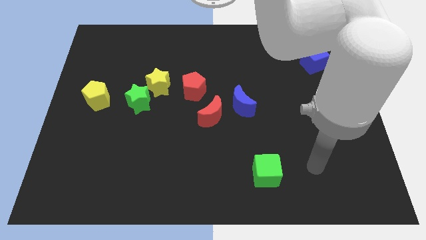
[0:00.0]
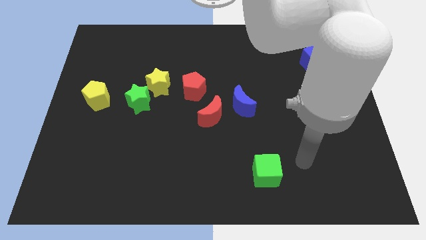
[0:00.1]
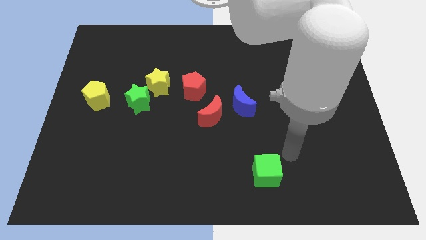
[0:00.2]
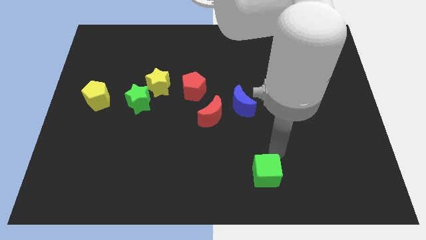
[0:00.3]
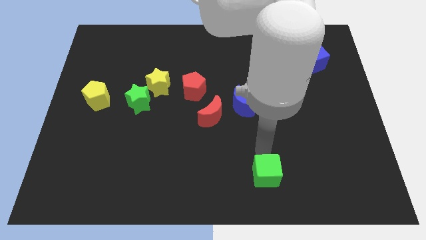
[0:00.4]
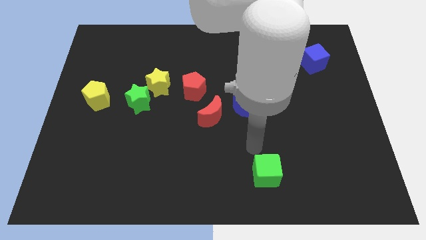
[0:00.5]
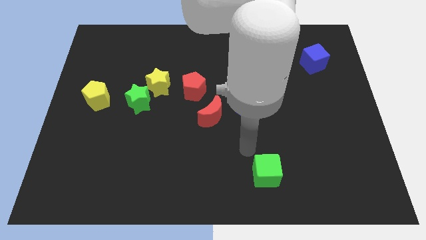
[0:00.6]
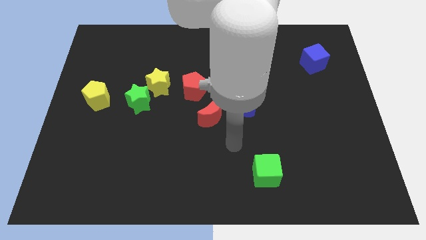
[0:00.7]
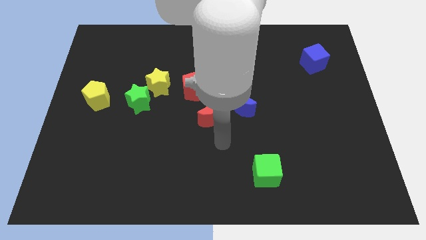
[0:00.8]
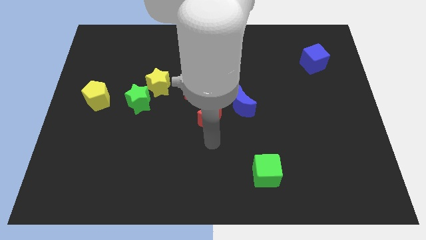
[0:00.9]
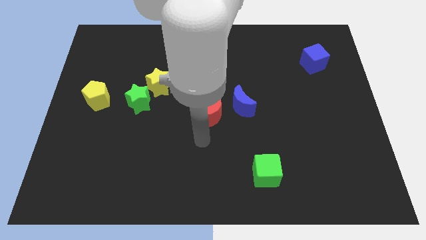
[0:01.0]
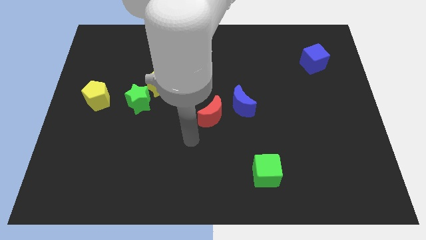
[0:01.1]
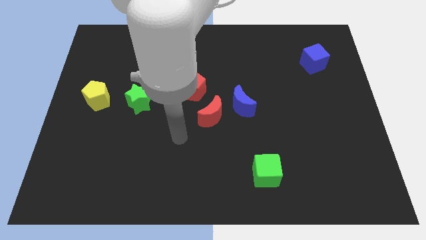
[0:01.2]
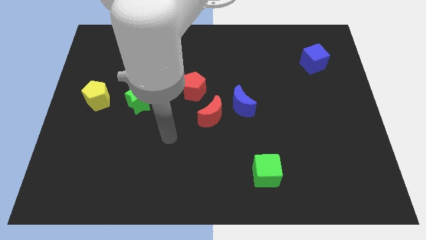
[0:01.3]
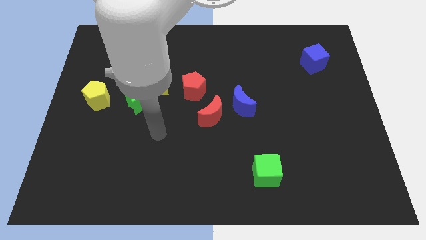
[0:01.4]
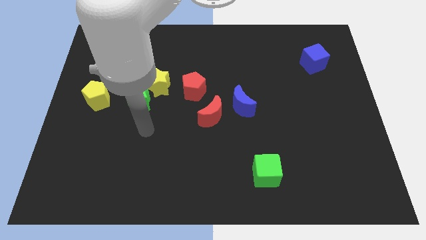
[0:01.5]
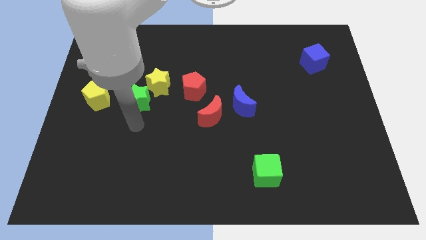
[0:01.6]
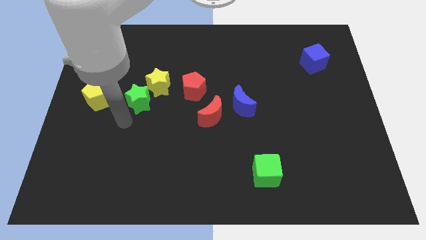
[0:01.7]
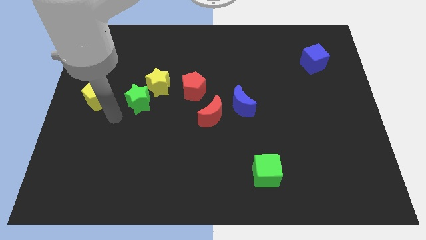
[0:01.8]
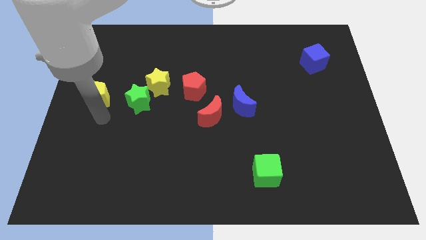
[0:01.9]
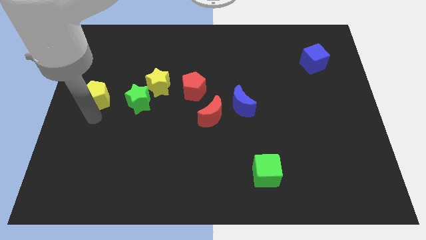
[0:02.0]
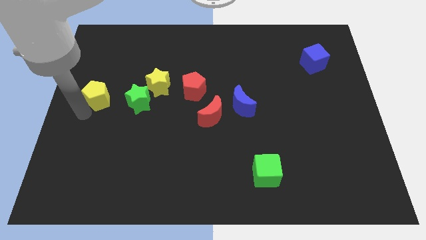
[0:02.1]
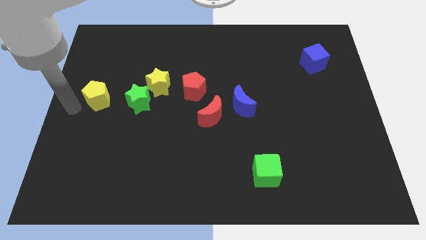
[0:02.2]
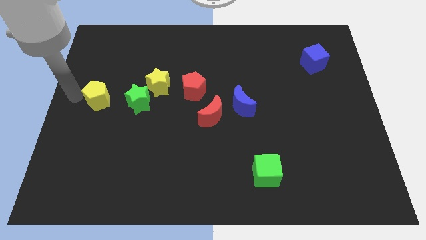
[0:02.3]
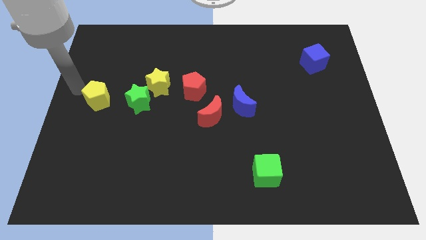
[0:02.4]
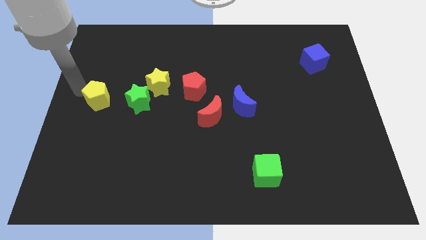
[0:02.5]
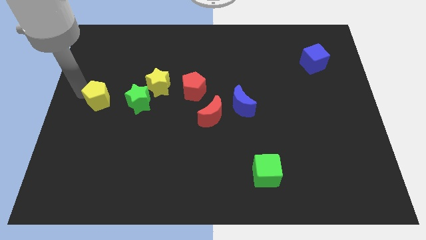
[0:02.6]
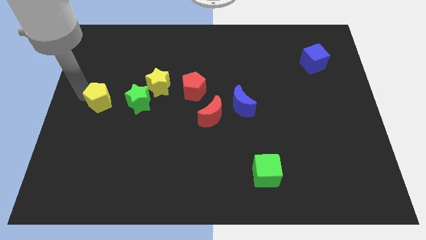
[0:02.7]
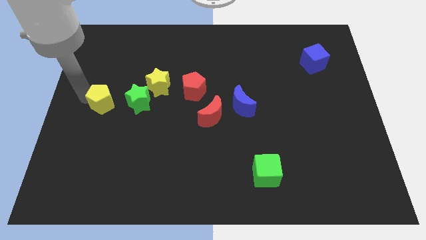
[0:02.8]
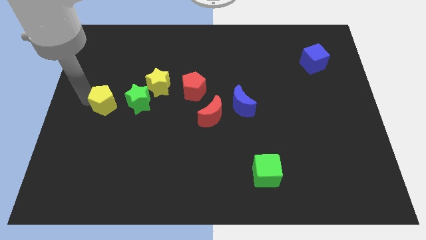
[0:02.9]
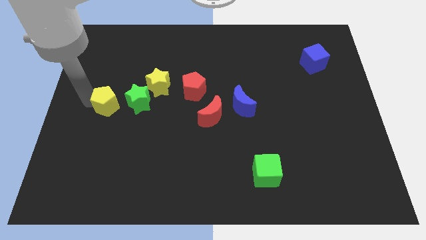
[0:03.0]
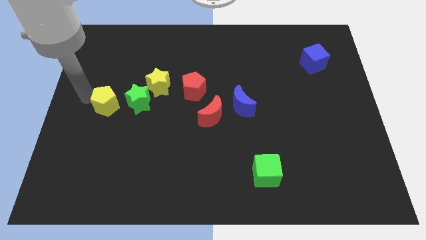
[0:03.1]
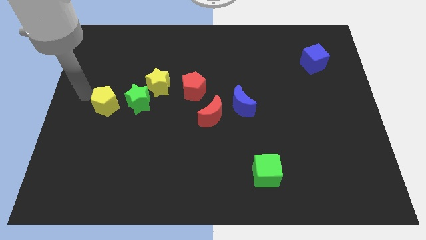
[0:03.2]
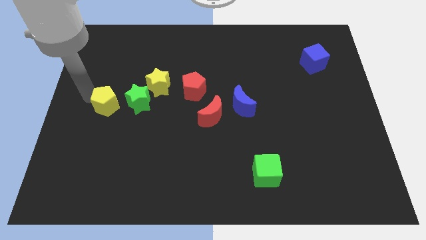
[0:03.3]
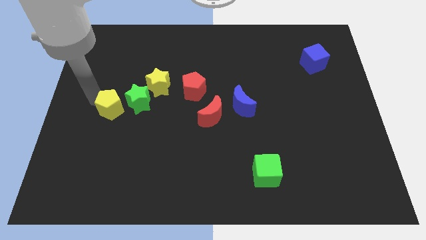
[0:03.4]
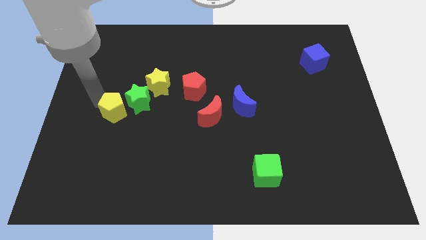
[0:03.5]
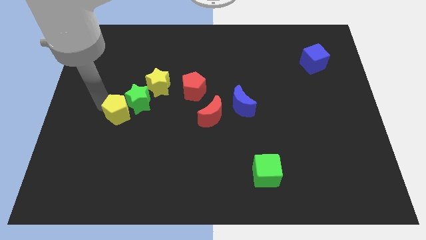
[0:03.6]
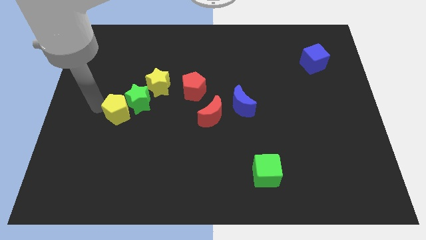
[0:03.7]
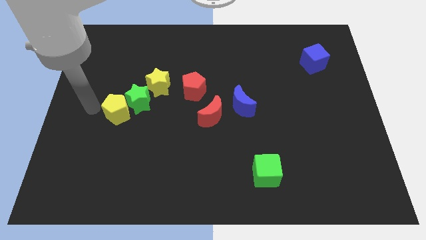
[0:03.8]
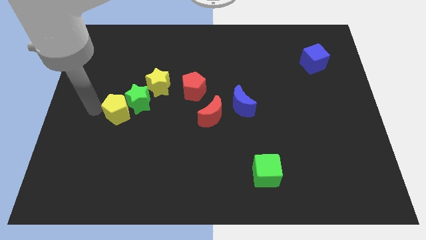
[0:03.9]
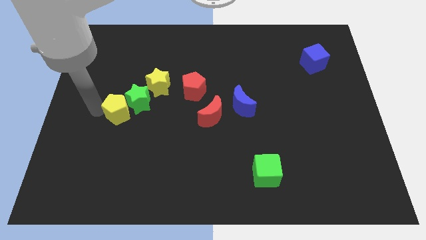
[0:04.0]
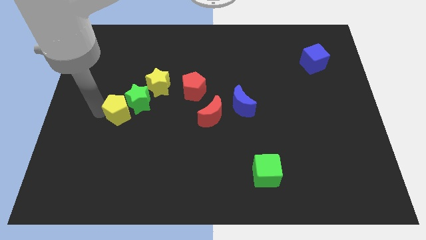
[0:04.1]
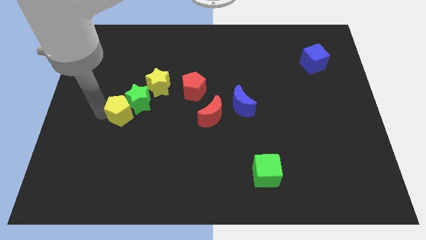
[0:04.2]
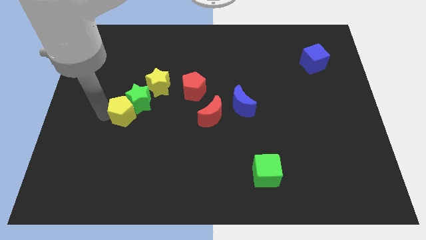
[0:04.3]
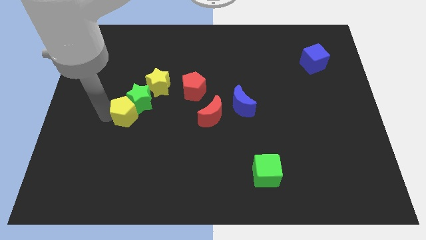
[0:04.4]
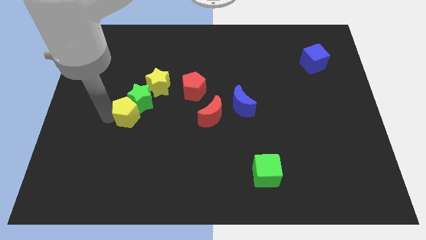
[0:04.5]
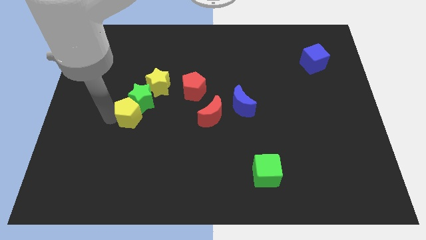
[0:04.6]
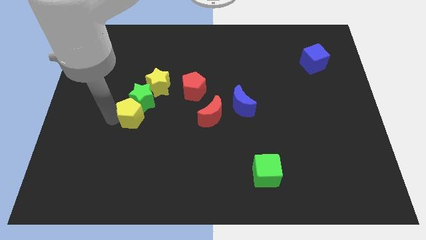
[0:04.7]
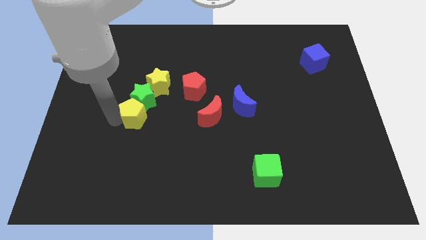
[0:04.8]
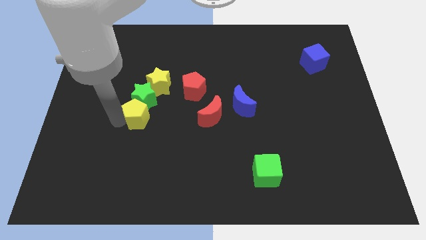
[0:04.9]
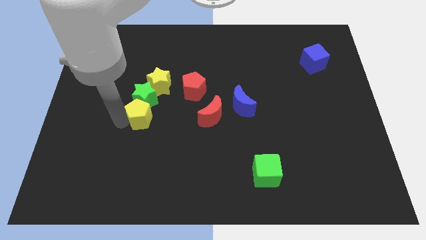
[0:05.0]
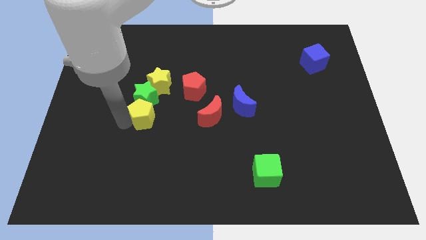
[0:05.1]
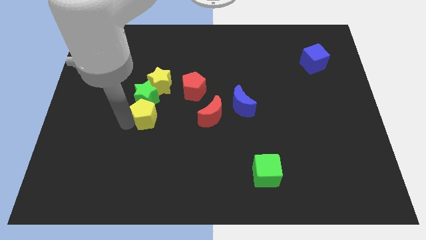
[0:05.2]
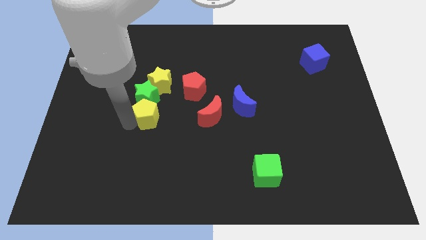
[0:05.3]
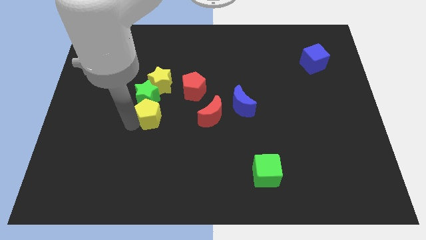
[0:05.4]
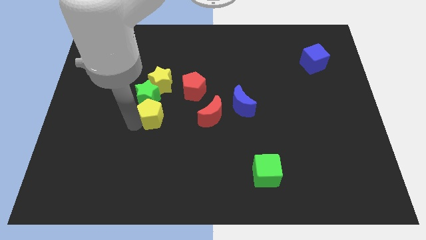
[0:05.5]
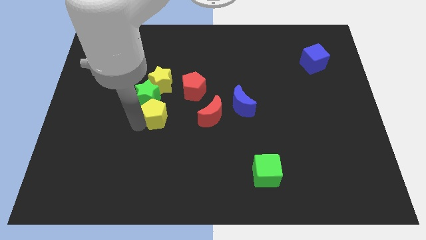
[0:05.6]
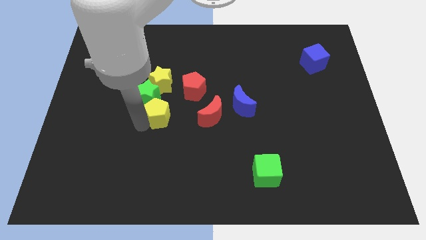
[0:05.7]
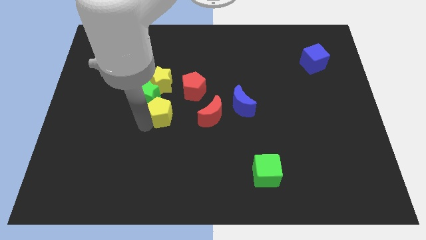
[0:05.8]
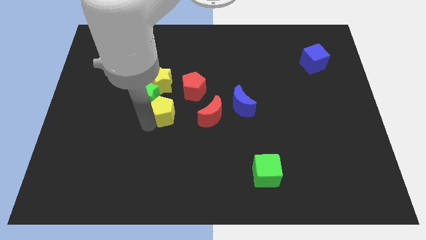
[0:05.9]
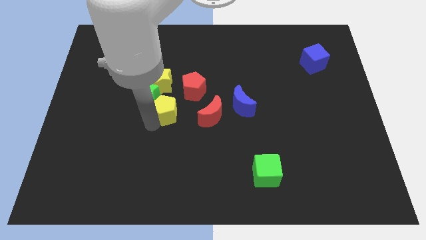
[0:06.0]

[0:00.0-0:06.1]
push the yellow pentagon diagonally down and to the right of the yellow star

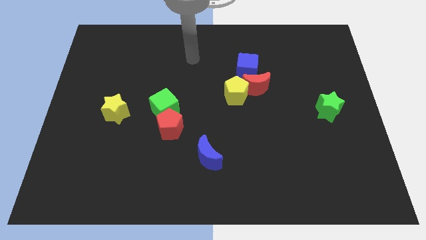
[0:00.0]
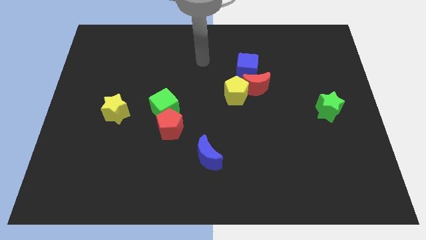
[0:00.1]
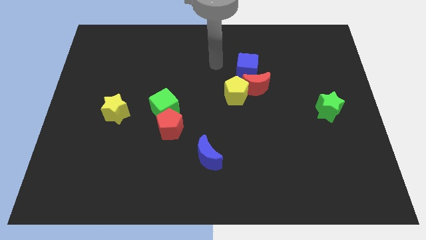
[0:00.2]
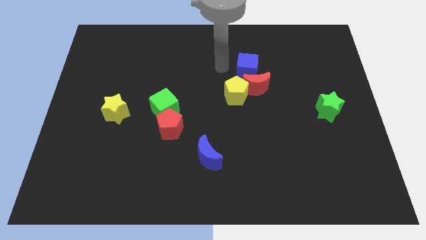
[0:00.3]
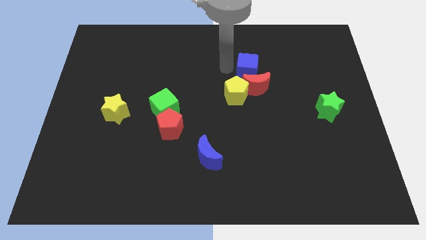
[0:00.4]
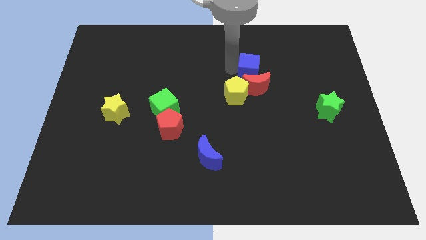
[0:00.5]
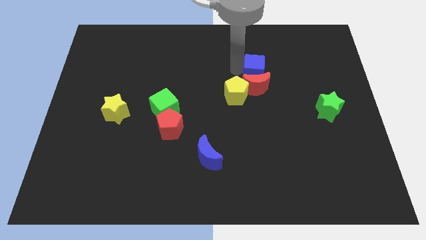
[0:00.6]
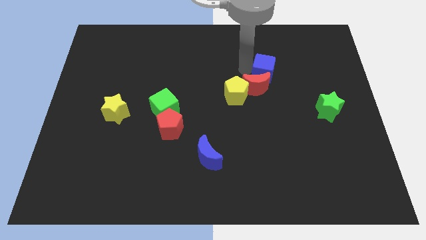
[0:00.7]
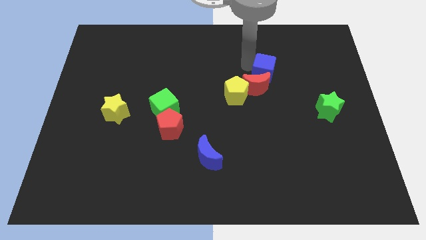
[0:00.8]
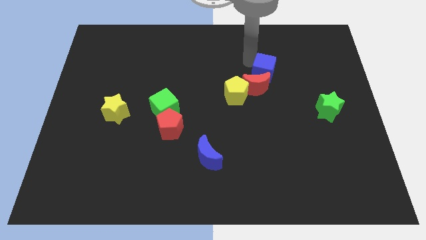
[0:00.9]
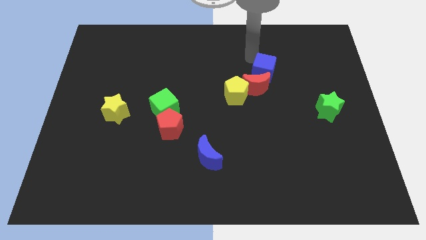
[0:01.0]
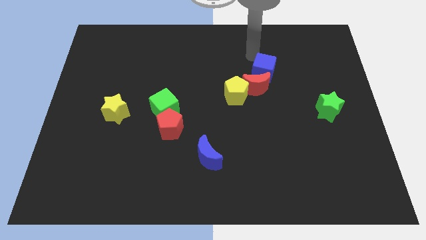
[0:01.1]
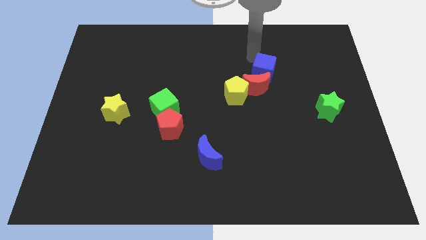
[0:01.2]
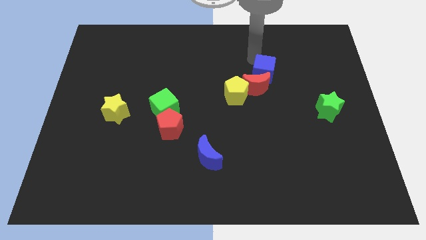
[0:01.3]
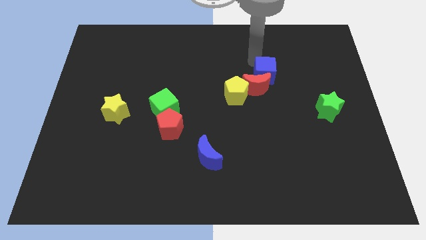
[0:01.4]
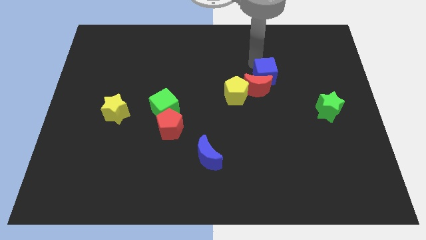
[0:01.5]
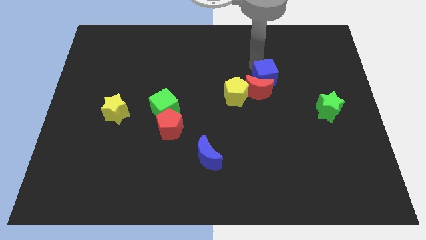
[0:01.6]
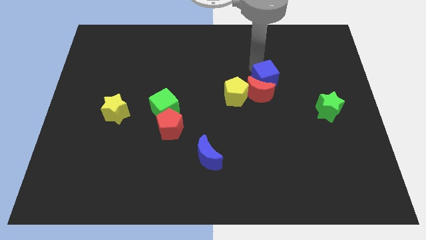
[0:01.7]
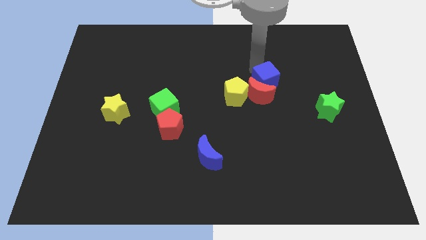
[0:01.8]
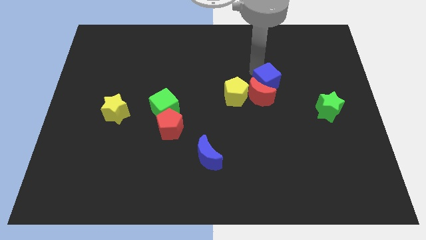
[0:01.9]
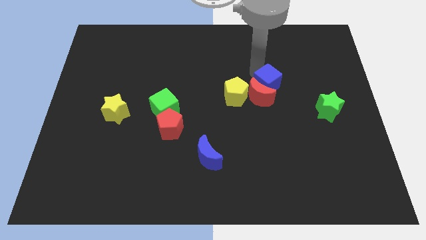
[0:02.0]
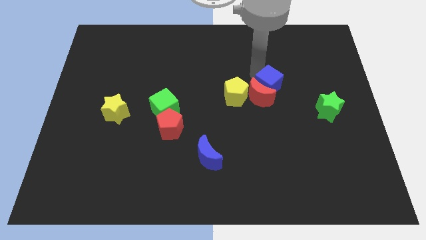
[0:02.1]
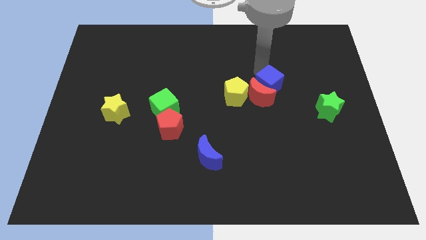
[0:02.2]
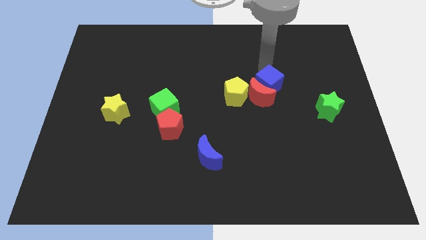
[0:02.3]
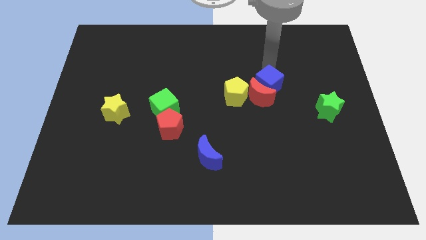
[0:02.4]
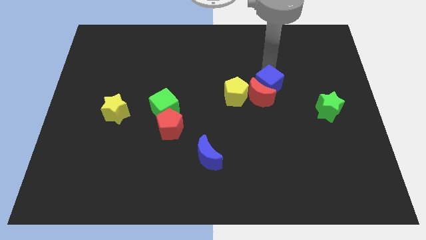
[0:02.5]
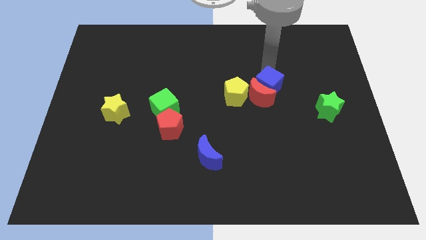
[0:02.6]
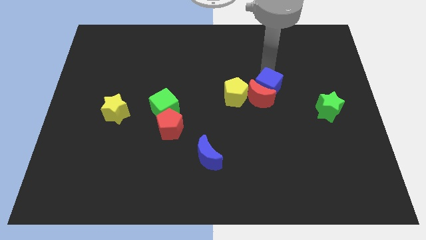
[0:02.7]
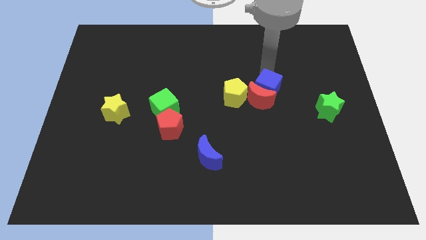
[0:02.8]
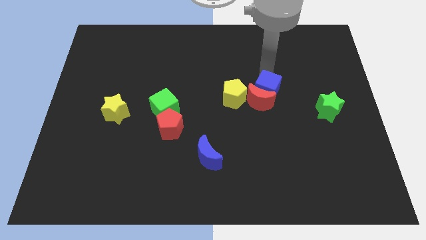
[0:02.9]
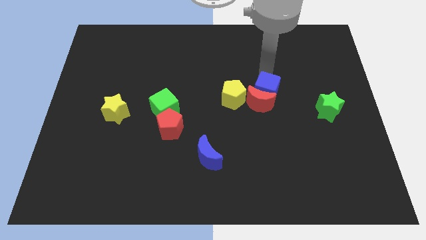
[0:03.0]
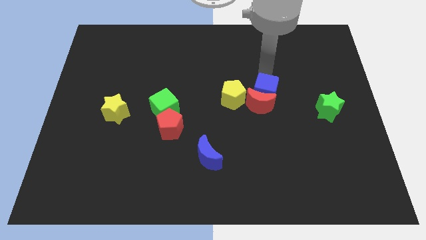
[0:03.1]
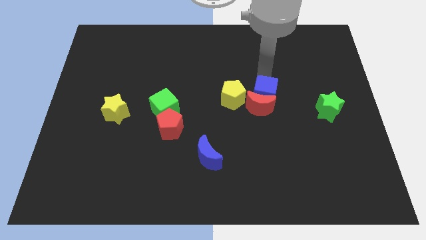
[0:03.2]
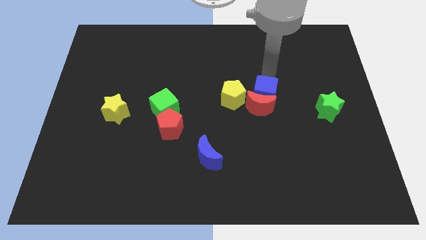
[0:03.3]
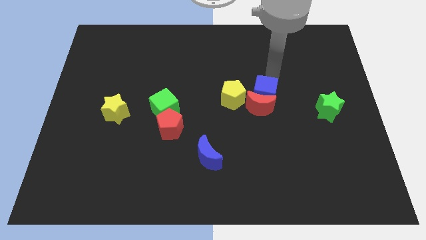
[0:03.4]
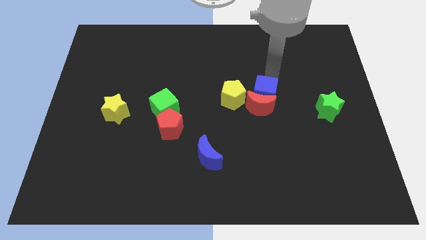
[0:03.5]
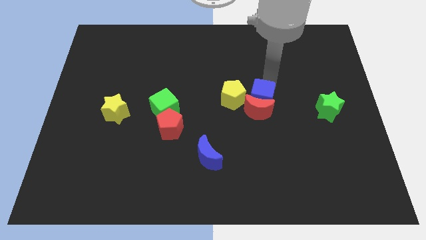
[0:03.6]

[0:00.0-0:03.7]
push the blue cube to the bottom right of the yellow pentagon
